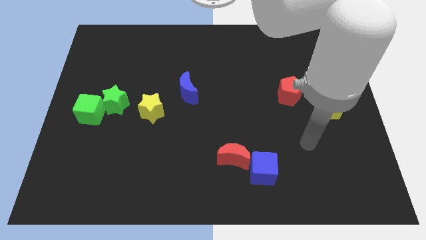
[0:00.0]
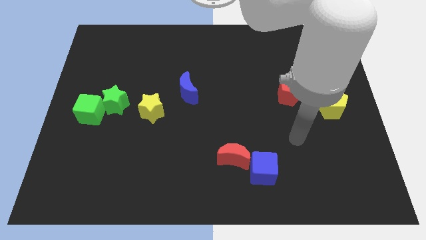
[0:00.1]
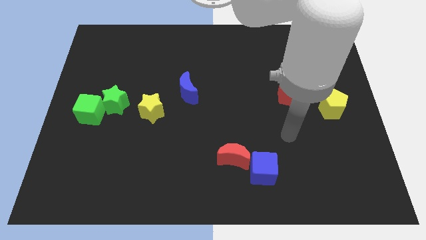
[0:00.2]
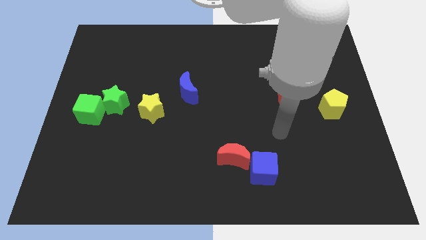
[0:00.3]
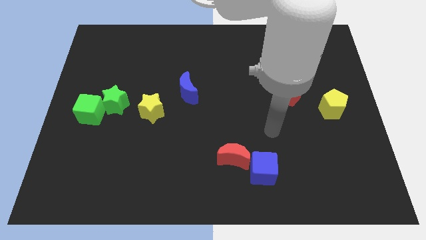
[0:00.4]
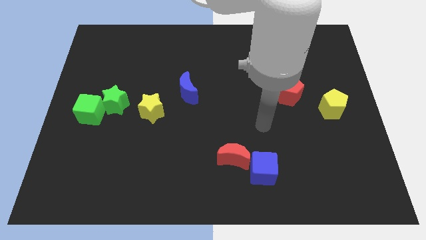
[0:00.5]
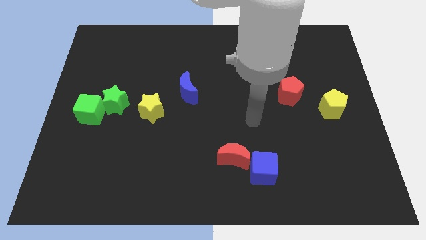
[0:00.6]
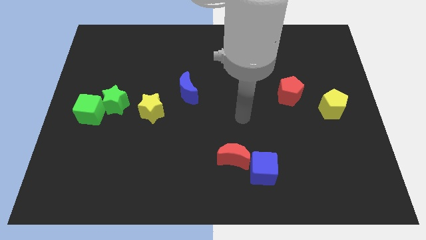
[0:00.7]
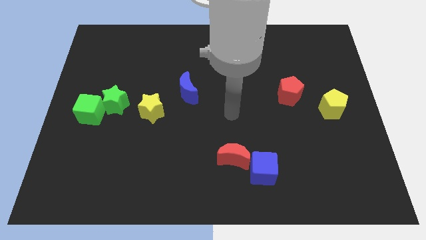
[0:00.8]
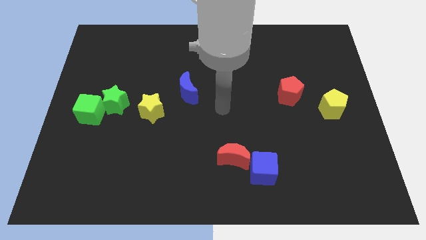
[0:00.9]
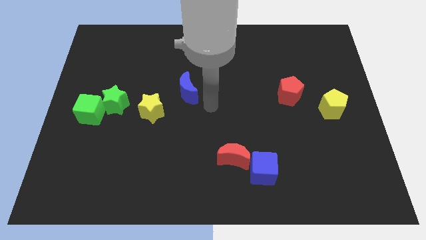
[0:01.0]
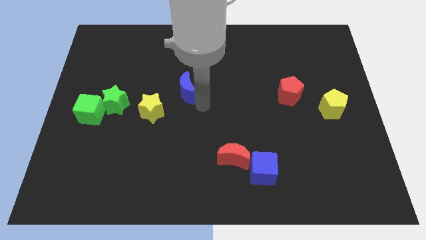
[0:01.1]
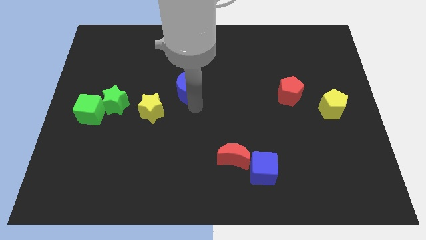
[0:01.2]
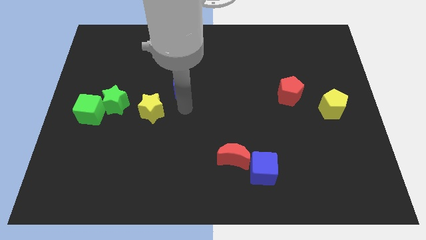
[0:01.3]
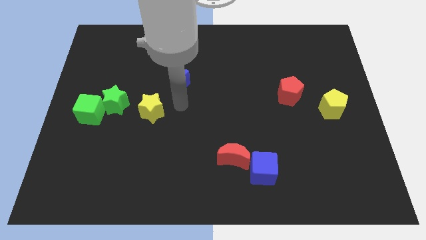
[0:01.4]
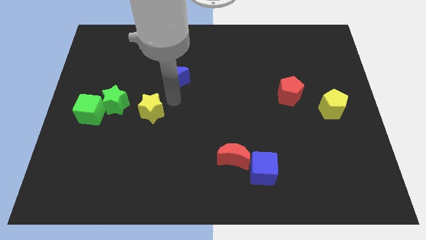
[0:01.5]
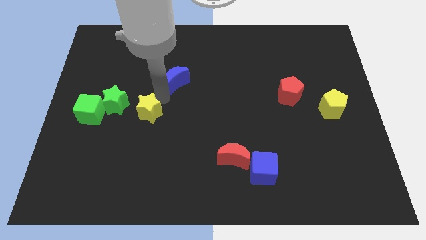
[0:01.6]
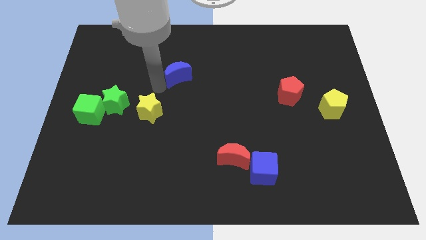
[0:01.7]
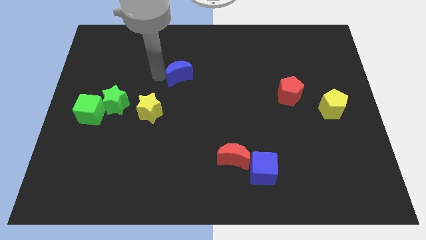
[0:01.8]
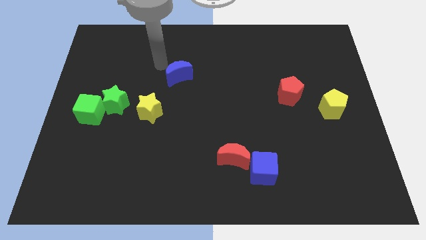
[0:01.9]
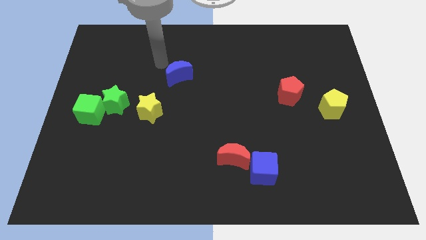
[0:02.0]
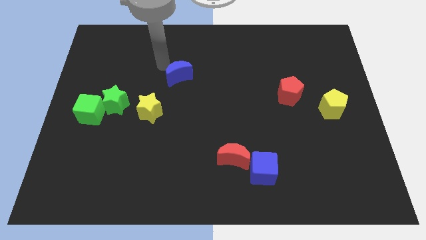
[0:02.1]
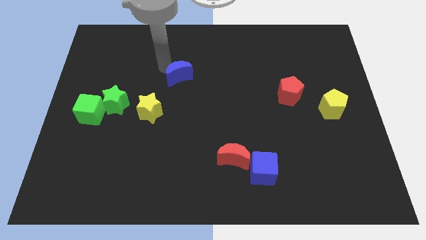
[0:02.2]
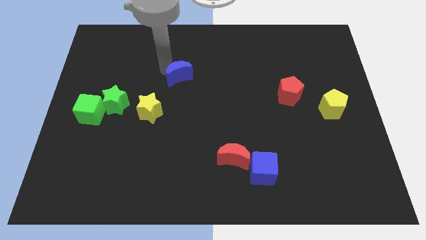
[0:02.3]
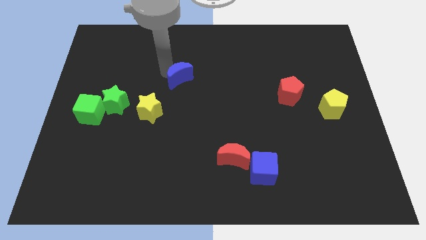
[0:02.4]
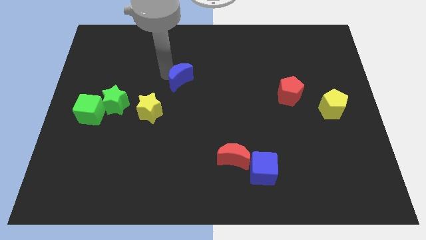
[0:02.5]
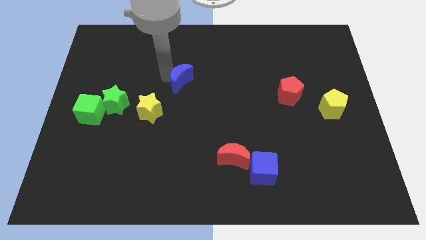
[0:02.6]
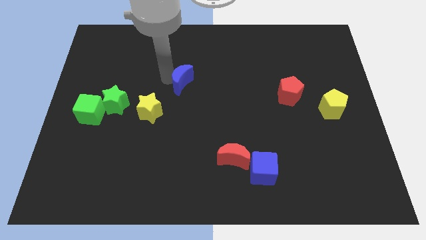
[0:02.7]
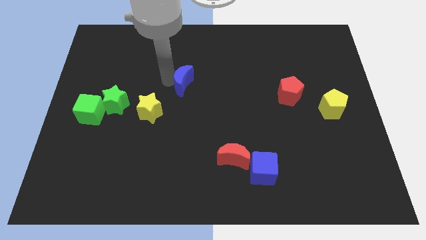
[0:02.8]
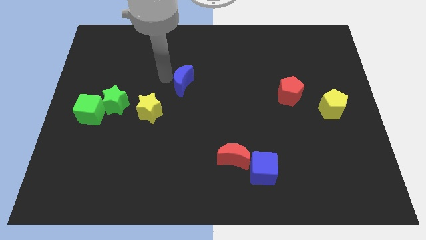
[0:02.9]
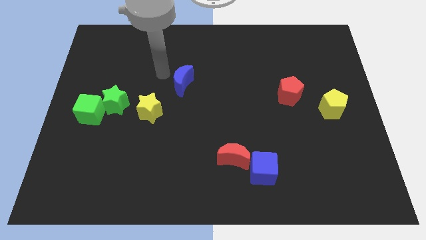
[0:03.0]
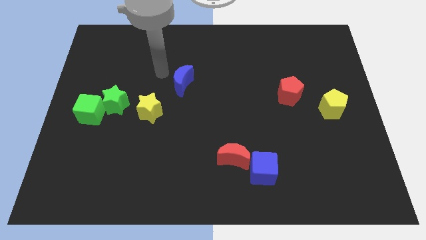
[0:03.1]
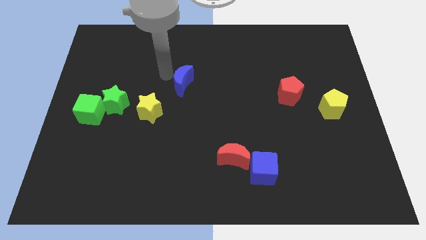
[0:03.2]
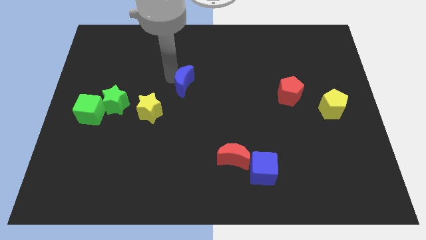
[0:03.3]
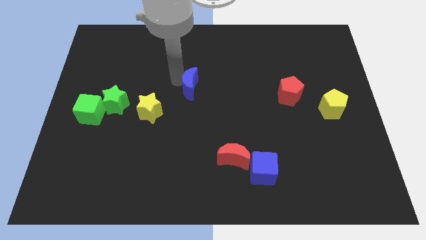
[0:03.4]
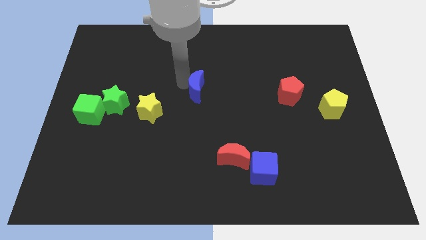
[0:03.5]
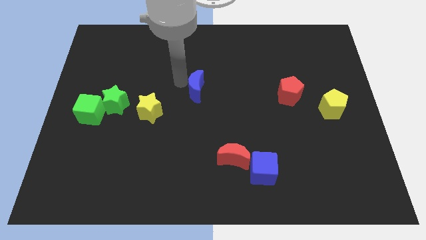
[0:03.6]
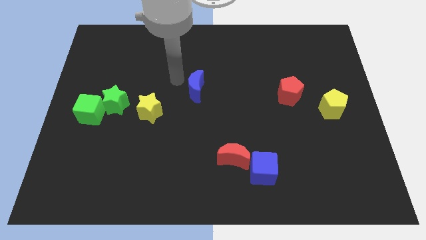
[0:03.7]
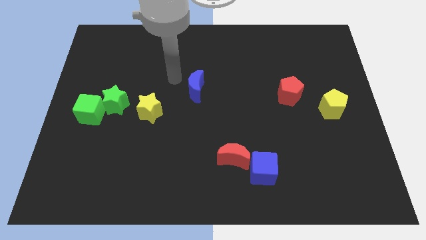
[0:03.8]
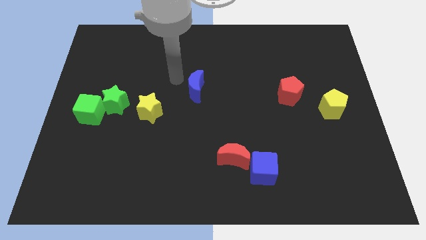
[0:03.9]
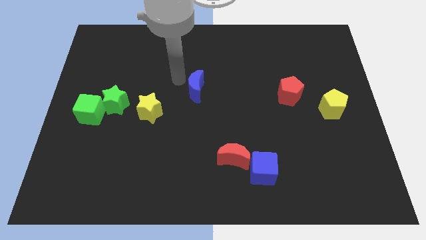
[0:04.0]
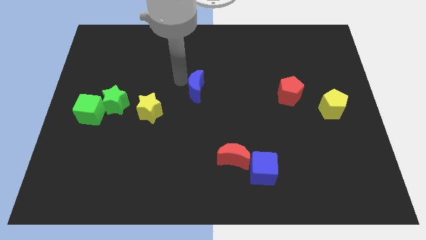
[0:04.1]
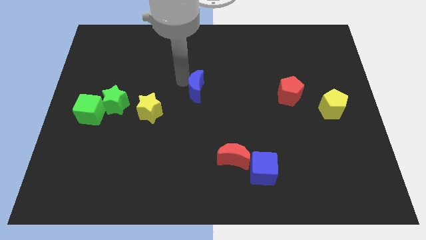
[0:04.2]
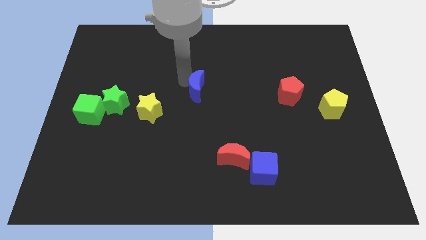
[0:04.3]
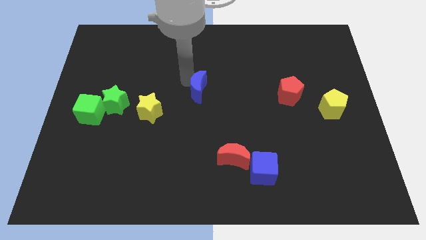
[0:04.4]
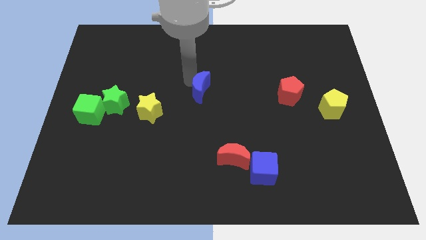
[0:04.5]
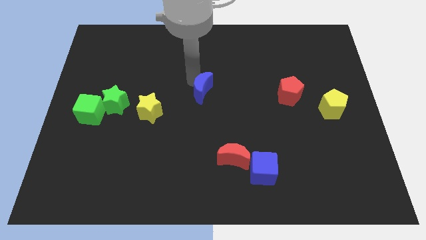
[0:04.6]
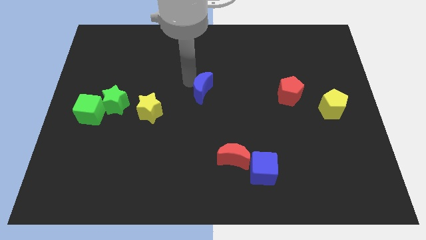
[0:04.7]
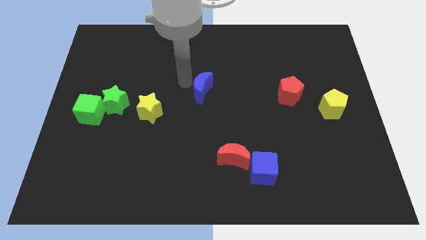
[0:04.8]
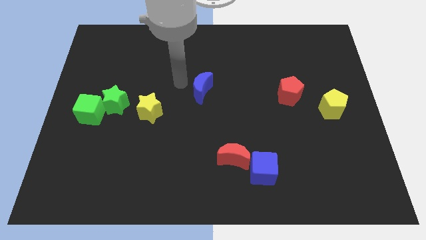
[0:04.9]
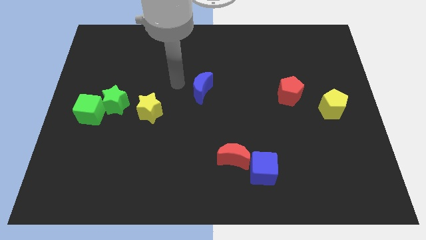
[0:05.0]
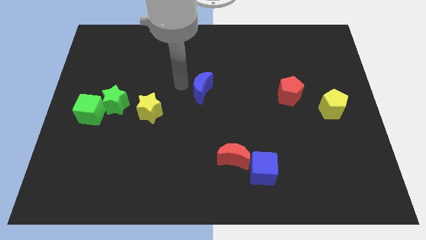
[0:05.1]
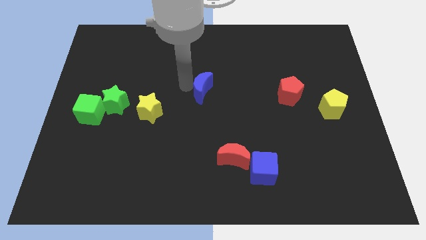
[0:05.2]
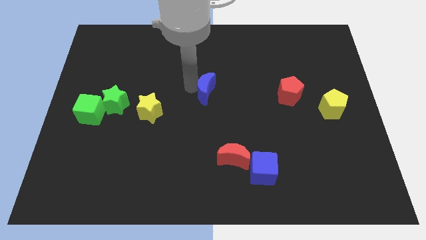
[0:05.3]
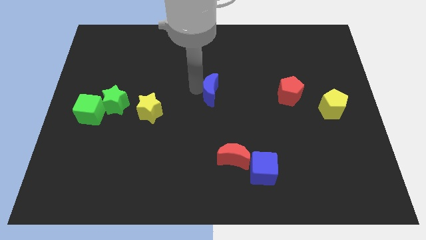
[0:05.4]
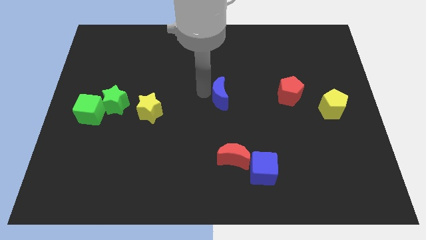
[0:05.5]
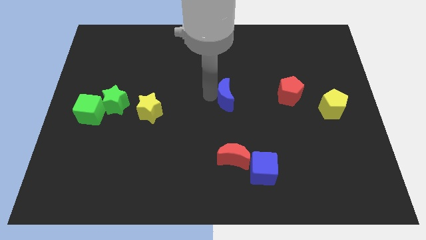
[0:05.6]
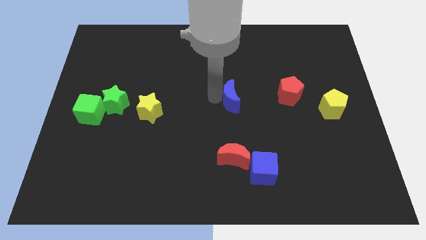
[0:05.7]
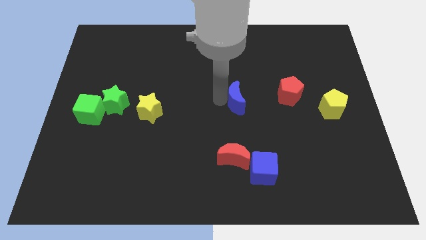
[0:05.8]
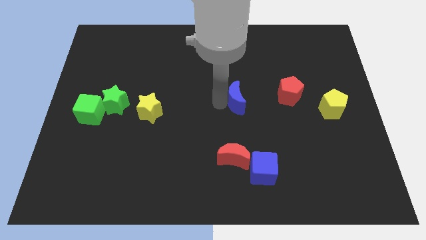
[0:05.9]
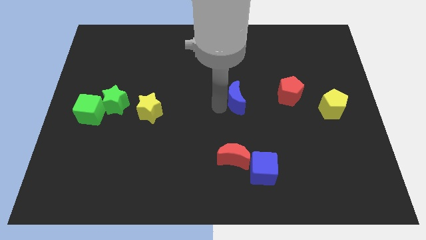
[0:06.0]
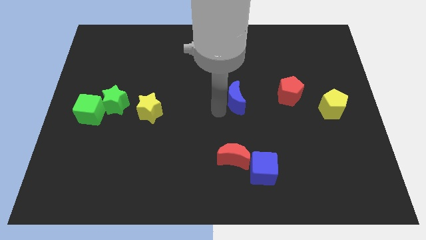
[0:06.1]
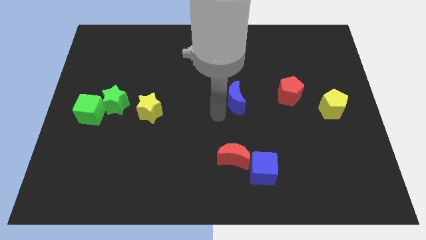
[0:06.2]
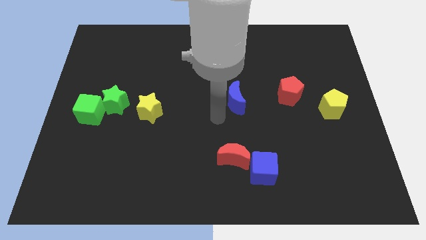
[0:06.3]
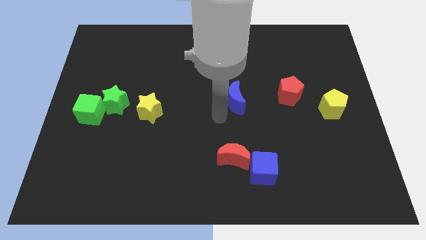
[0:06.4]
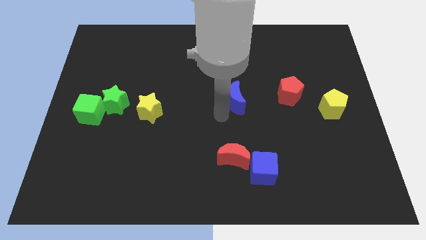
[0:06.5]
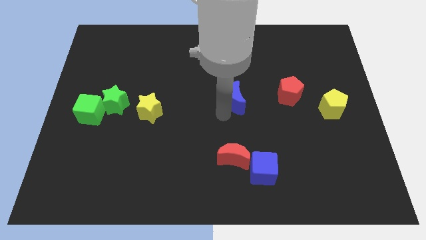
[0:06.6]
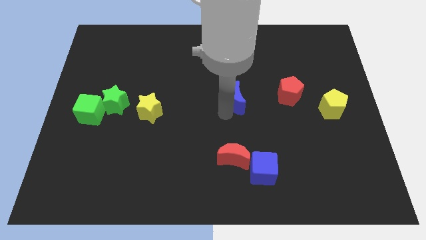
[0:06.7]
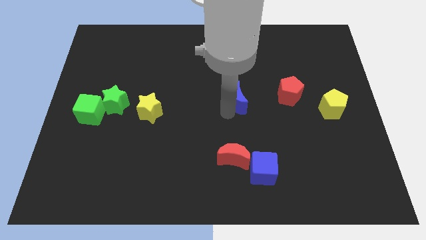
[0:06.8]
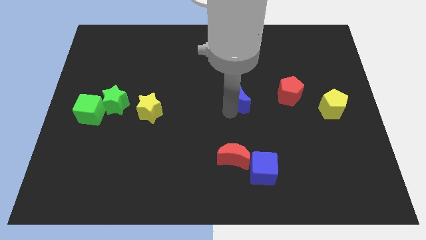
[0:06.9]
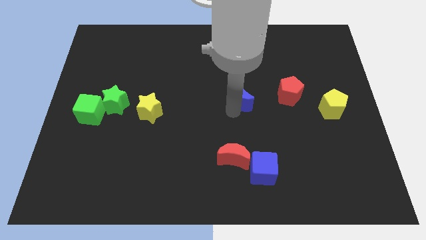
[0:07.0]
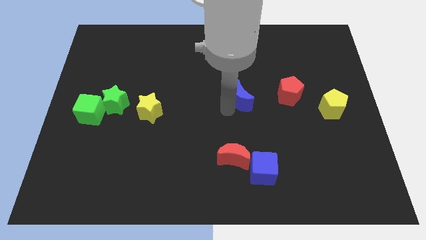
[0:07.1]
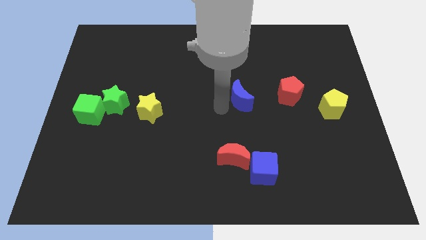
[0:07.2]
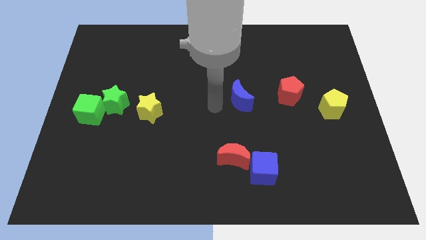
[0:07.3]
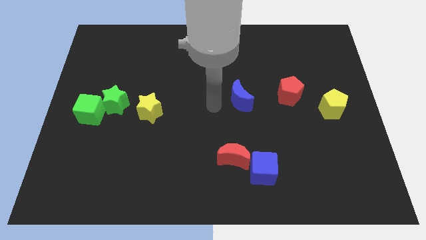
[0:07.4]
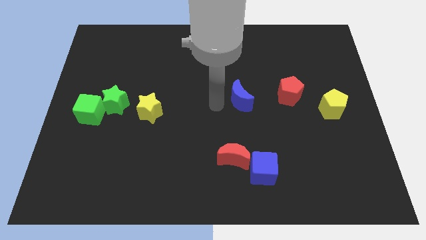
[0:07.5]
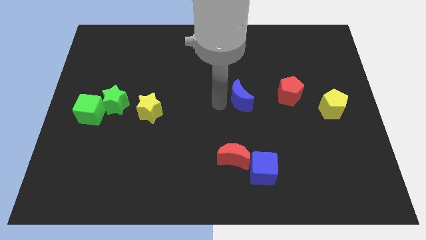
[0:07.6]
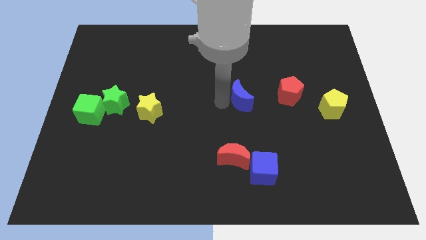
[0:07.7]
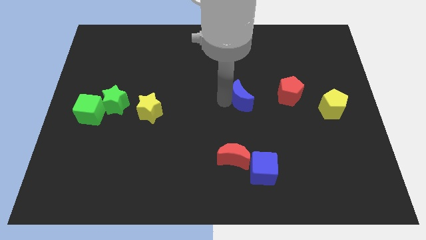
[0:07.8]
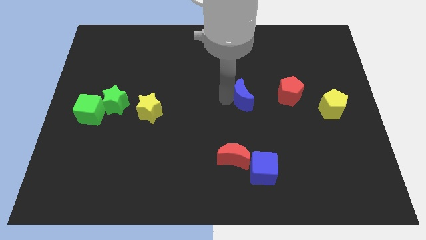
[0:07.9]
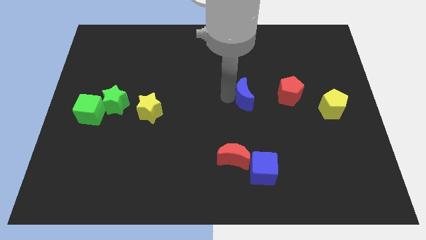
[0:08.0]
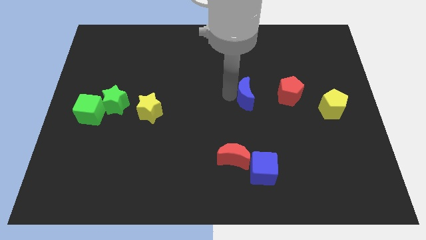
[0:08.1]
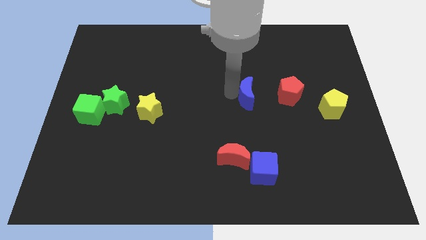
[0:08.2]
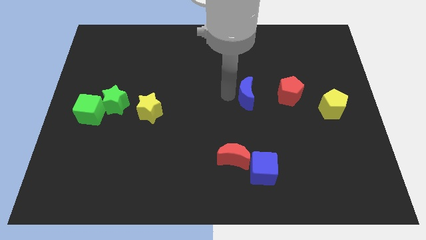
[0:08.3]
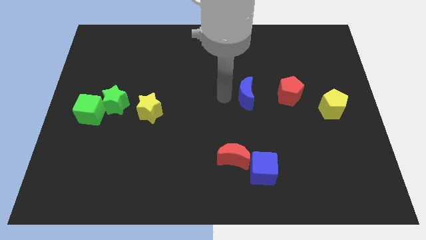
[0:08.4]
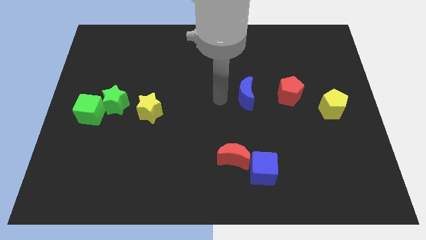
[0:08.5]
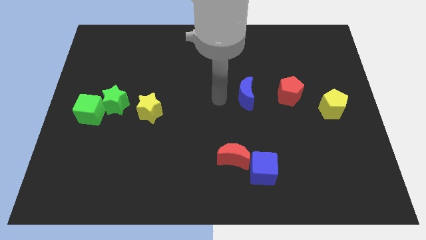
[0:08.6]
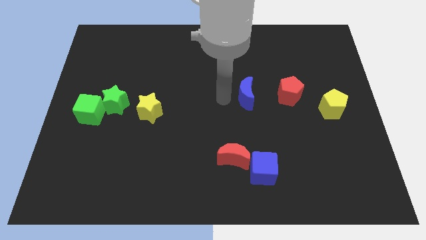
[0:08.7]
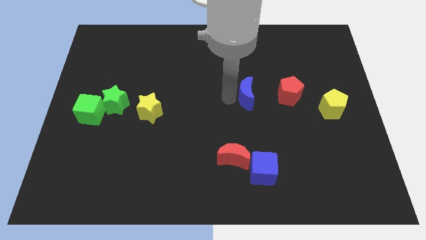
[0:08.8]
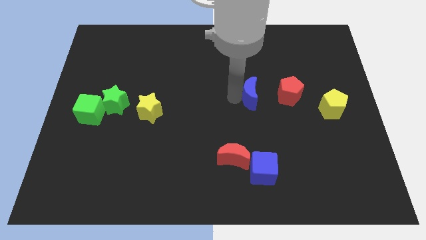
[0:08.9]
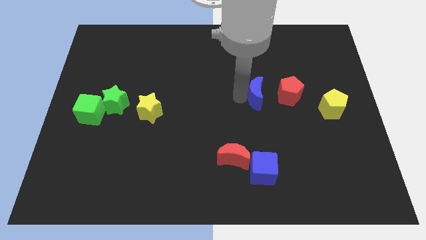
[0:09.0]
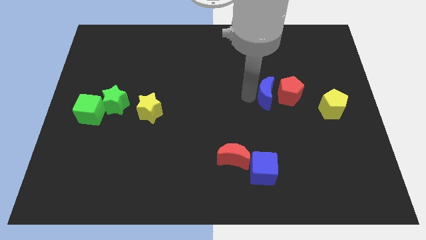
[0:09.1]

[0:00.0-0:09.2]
put the blue moon close to the red pentagon
